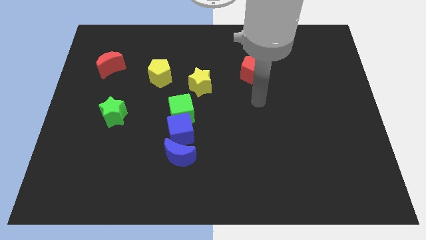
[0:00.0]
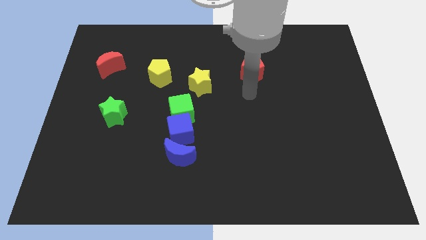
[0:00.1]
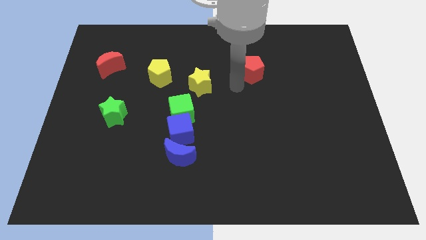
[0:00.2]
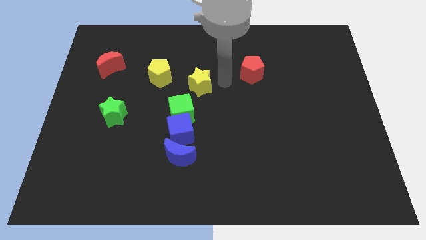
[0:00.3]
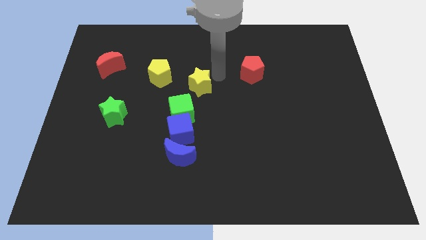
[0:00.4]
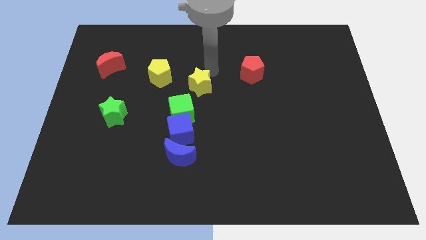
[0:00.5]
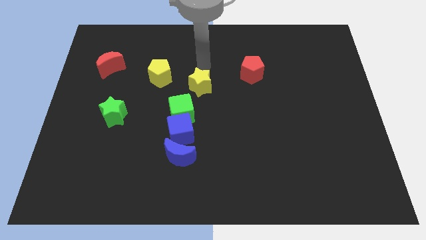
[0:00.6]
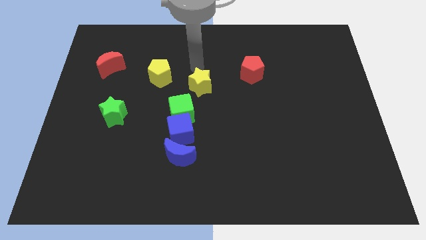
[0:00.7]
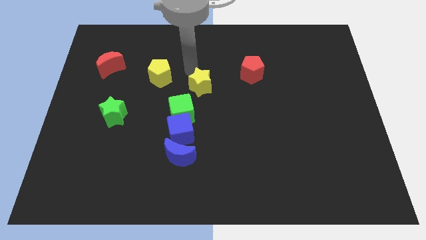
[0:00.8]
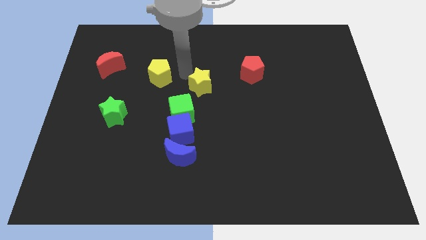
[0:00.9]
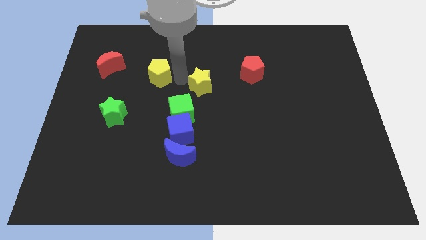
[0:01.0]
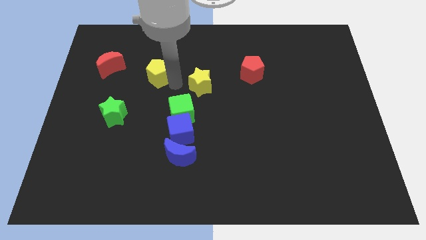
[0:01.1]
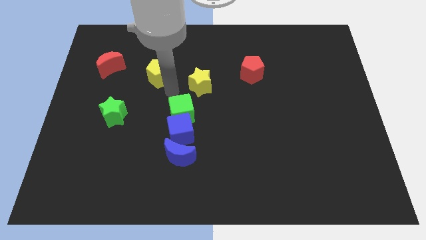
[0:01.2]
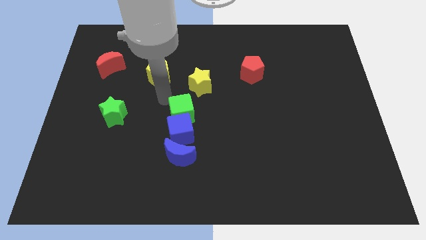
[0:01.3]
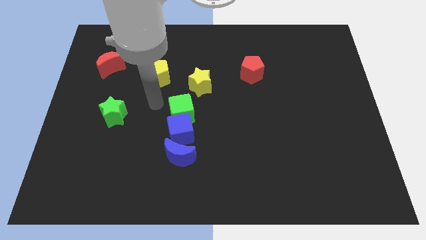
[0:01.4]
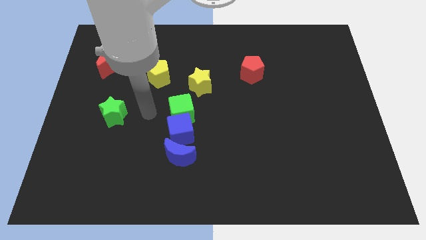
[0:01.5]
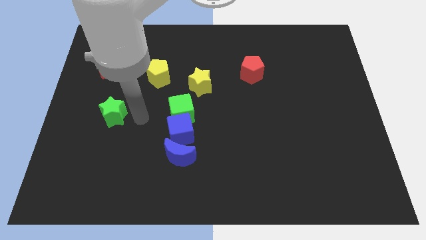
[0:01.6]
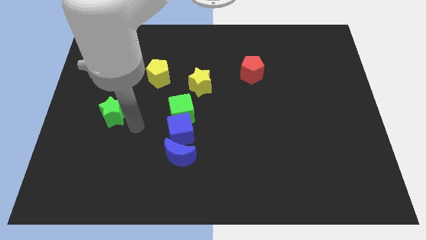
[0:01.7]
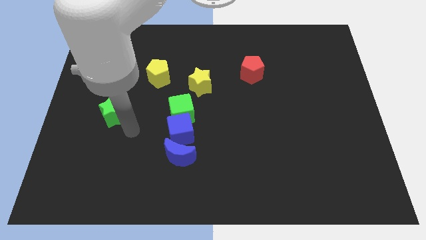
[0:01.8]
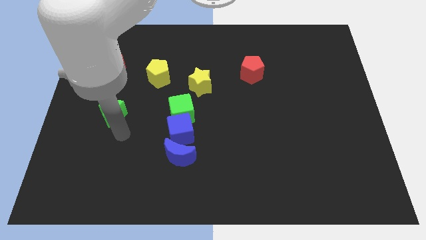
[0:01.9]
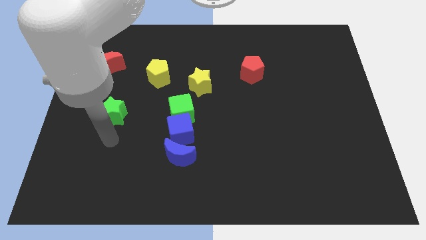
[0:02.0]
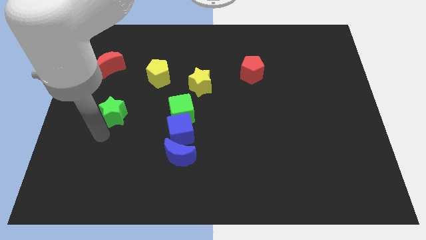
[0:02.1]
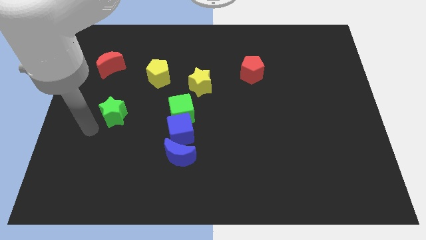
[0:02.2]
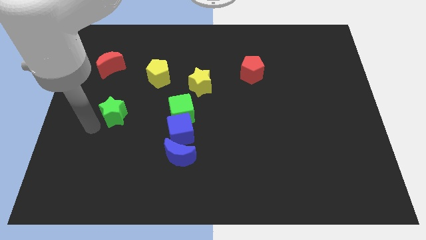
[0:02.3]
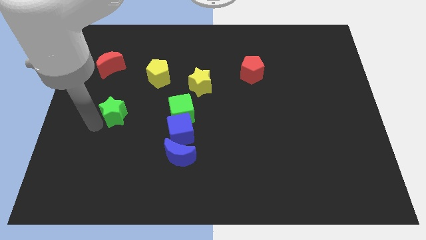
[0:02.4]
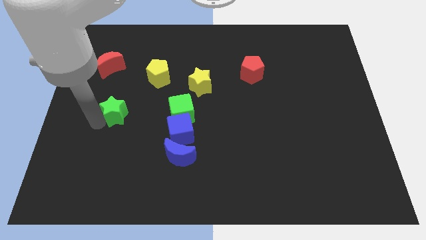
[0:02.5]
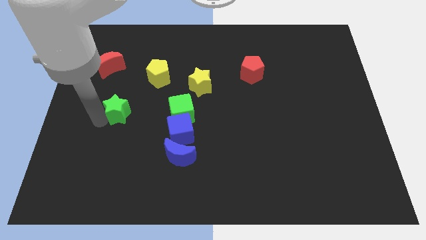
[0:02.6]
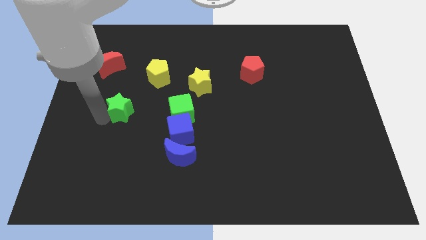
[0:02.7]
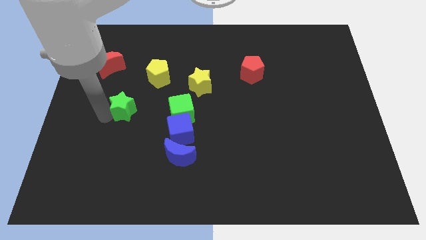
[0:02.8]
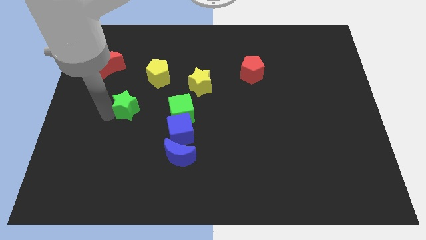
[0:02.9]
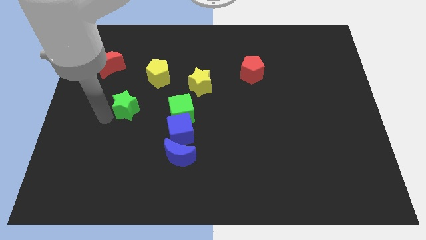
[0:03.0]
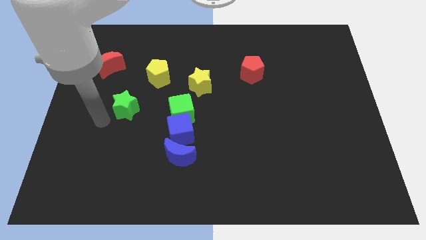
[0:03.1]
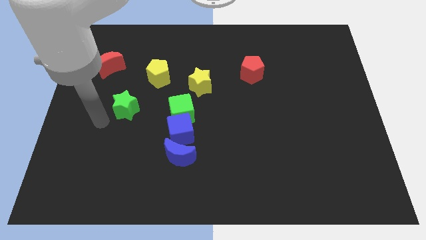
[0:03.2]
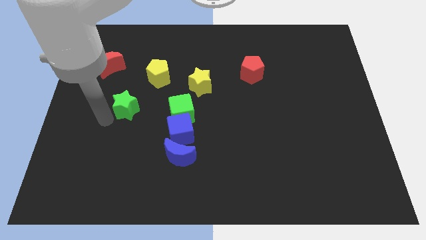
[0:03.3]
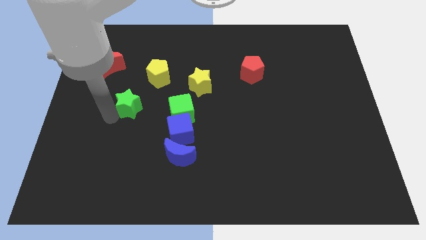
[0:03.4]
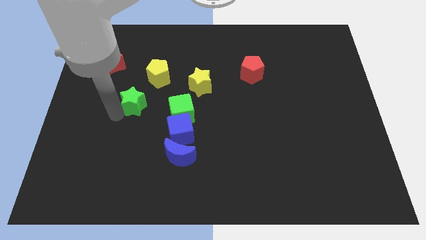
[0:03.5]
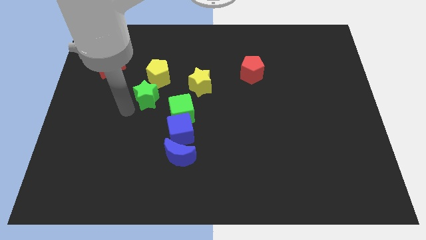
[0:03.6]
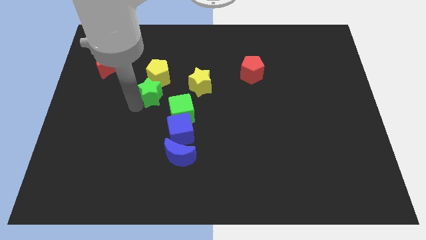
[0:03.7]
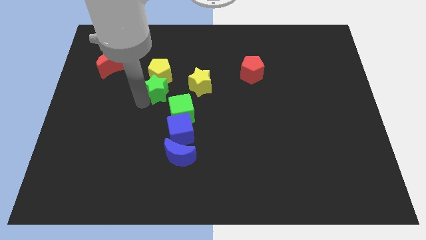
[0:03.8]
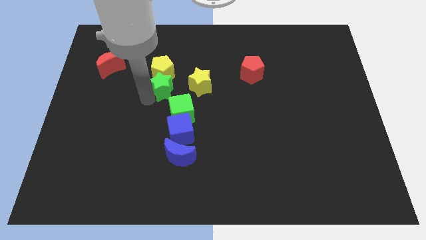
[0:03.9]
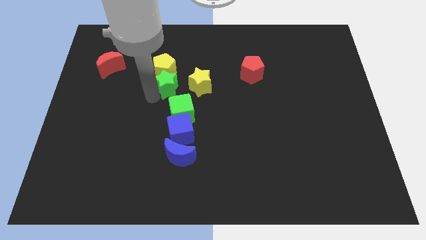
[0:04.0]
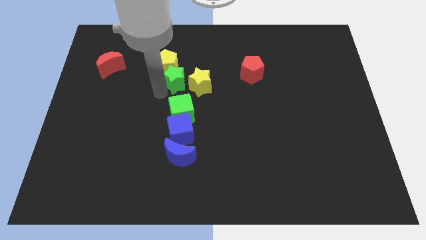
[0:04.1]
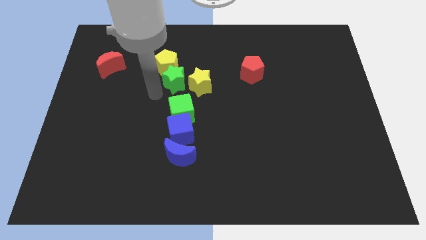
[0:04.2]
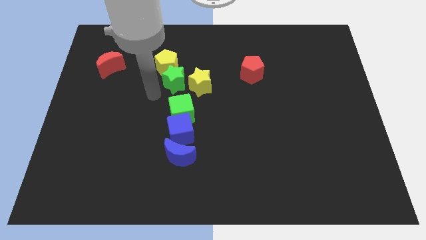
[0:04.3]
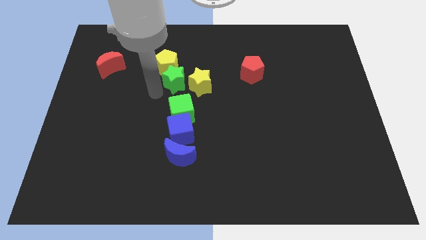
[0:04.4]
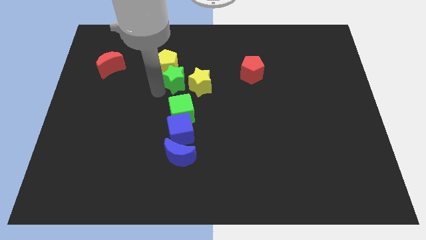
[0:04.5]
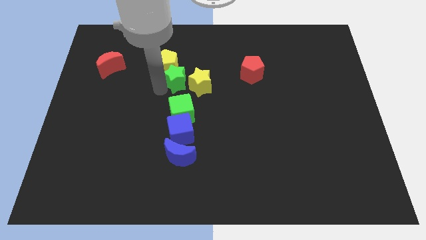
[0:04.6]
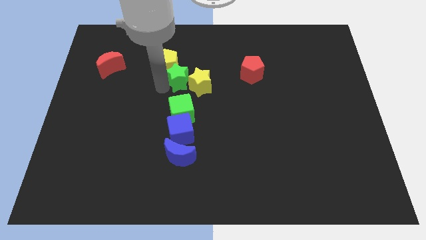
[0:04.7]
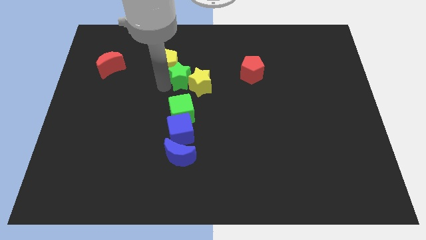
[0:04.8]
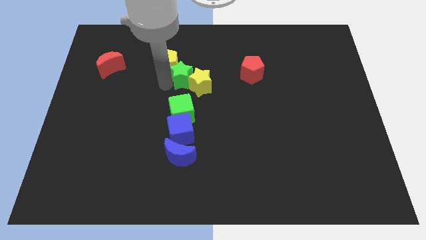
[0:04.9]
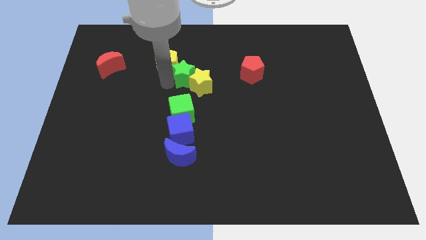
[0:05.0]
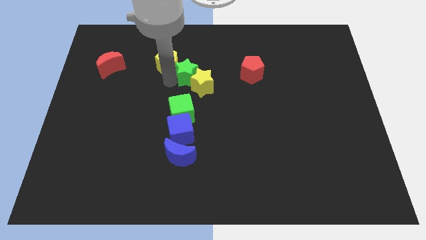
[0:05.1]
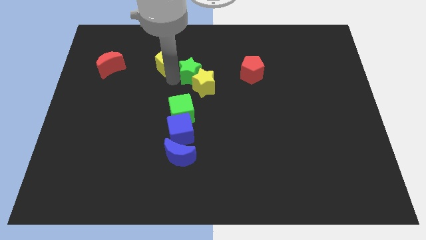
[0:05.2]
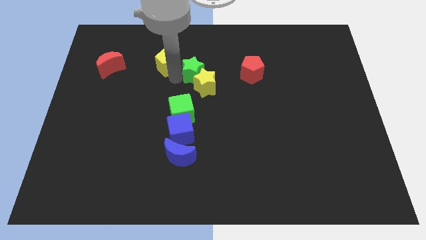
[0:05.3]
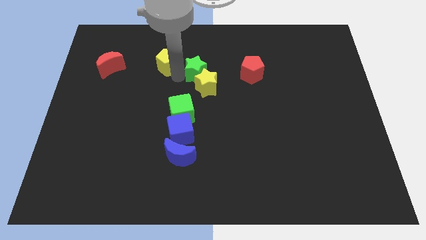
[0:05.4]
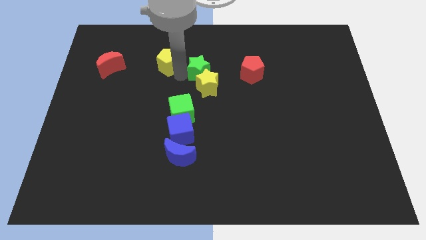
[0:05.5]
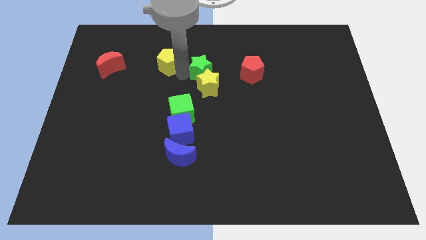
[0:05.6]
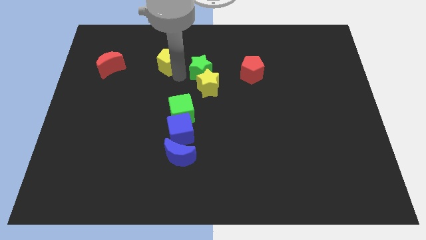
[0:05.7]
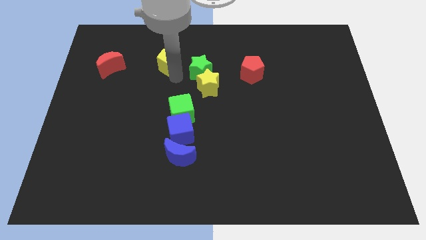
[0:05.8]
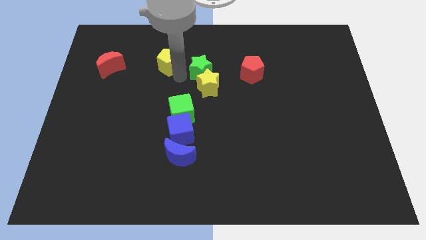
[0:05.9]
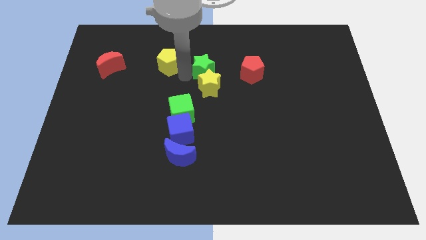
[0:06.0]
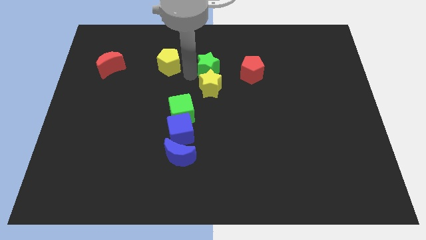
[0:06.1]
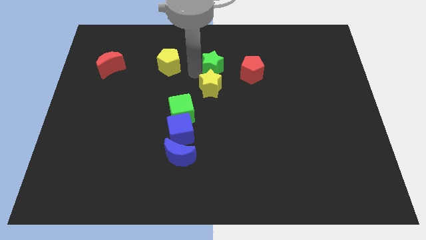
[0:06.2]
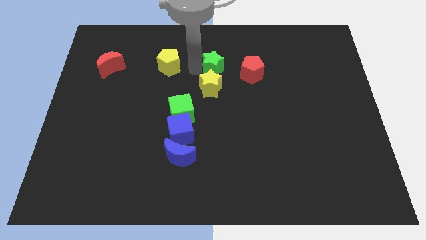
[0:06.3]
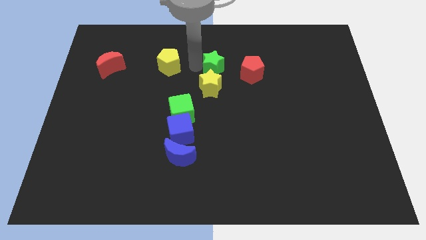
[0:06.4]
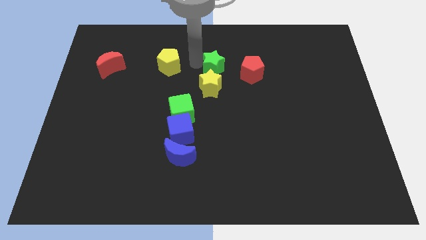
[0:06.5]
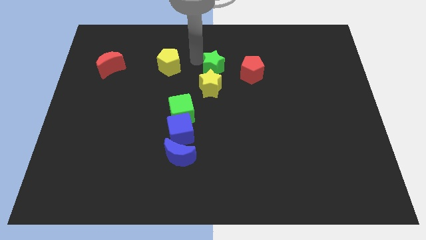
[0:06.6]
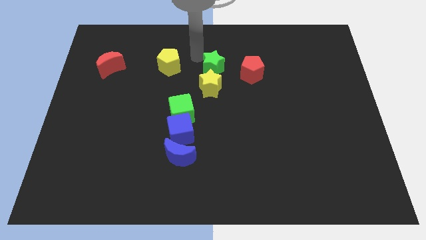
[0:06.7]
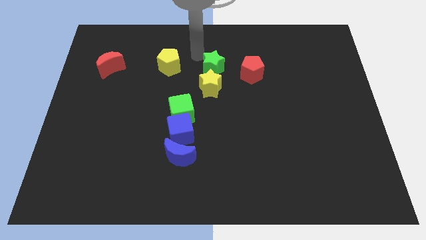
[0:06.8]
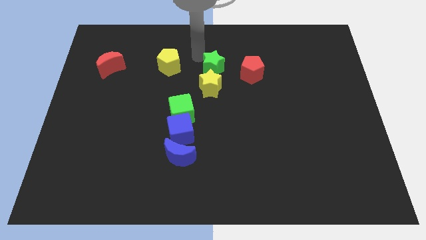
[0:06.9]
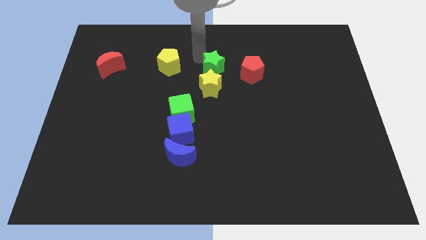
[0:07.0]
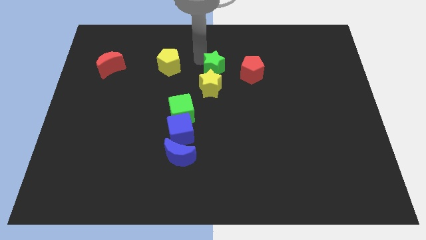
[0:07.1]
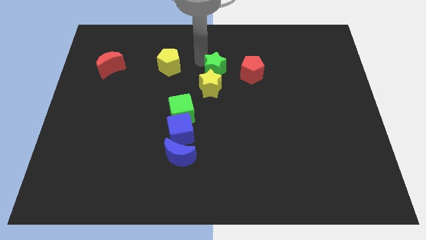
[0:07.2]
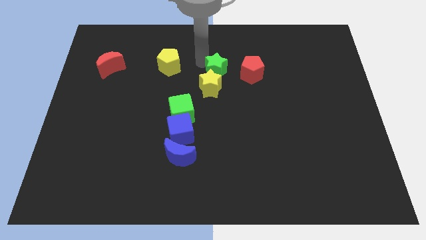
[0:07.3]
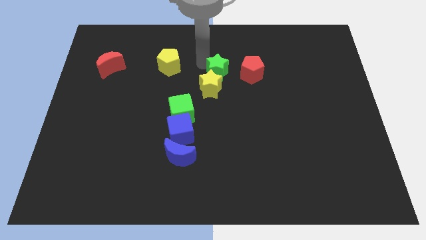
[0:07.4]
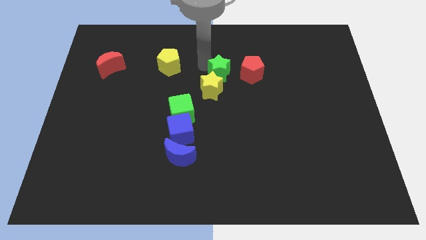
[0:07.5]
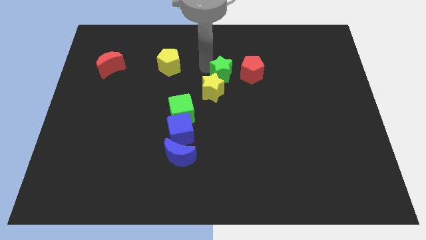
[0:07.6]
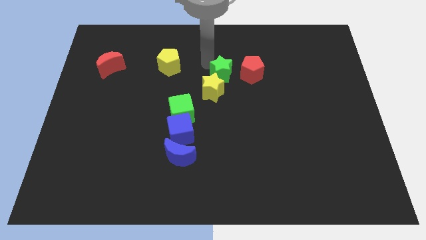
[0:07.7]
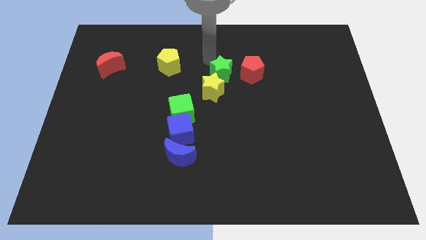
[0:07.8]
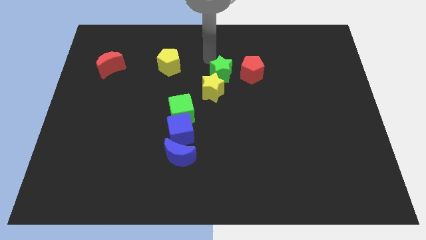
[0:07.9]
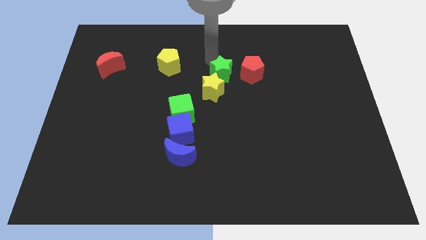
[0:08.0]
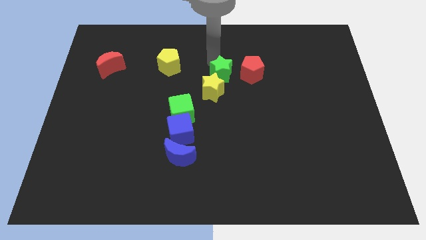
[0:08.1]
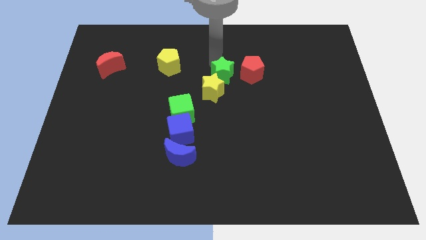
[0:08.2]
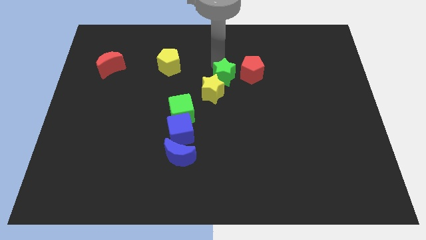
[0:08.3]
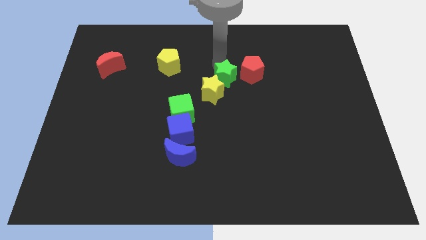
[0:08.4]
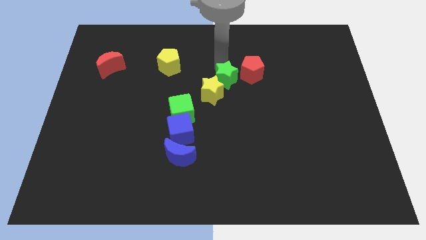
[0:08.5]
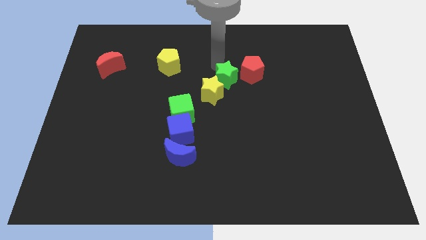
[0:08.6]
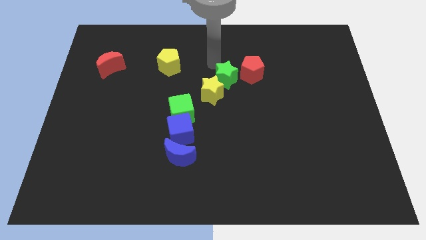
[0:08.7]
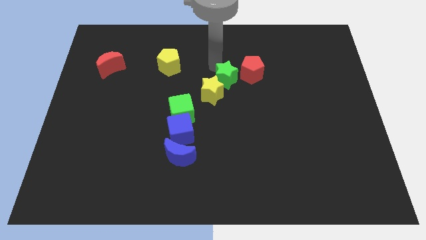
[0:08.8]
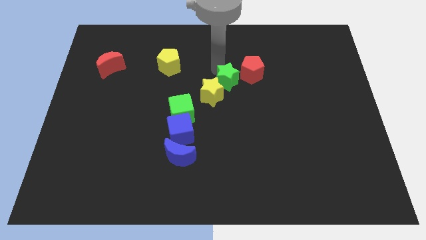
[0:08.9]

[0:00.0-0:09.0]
move the green star right
